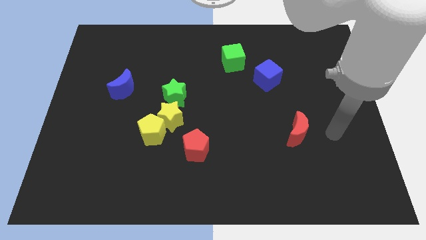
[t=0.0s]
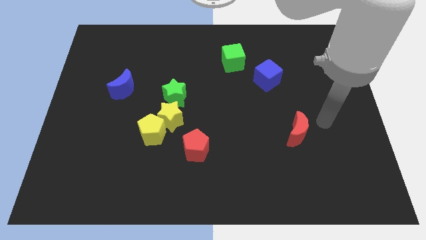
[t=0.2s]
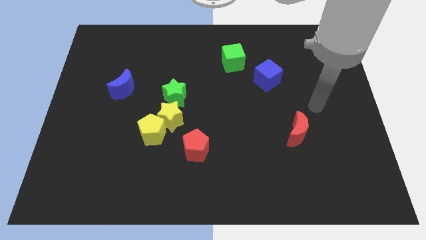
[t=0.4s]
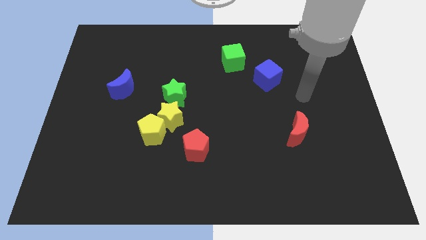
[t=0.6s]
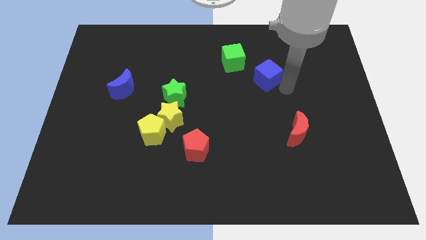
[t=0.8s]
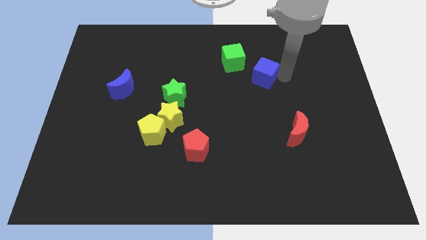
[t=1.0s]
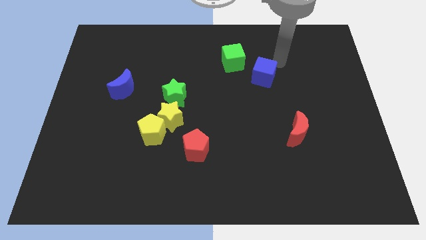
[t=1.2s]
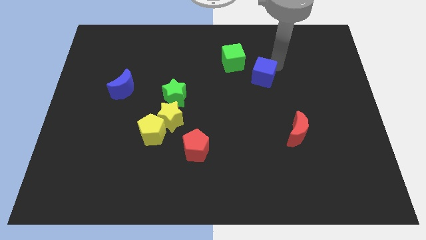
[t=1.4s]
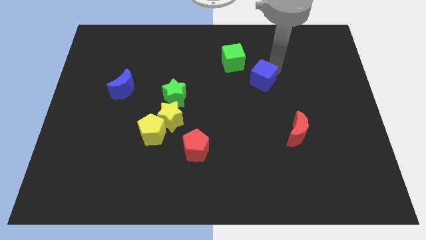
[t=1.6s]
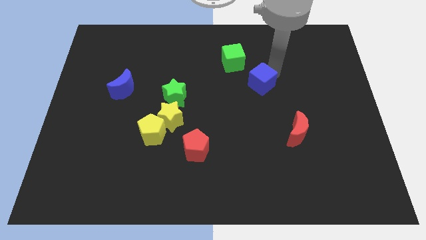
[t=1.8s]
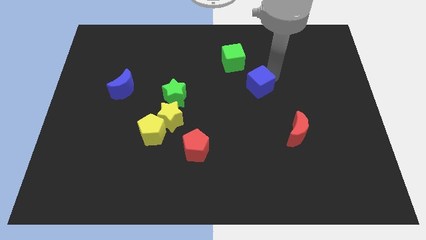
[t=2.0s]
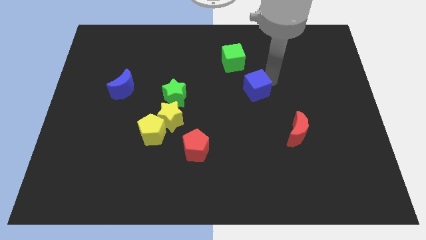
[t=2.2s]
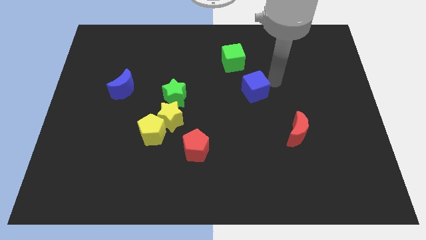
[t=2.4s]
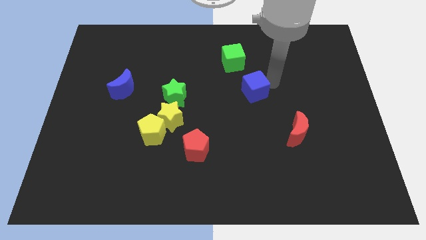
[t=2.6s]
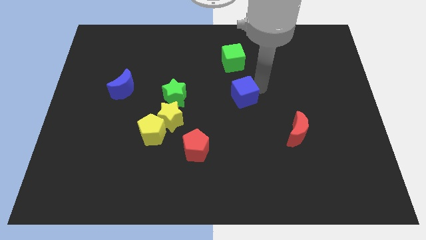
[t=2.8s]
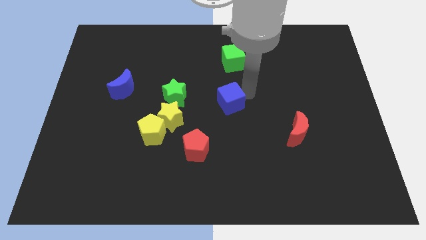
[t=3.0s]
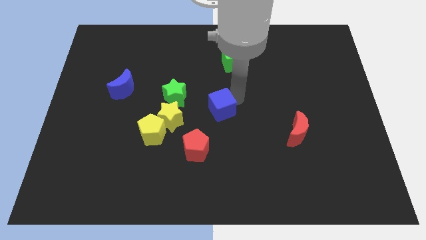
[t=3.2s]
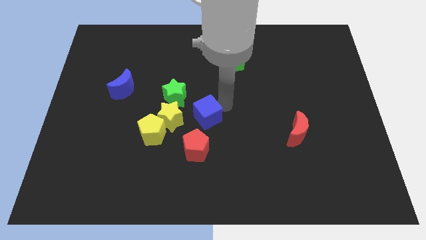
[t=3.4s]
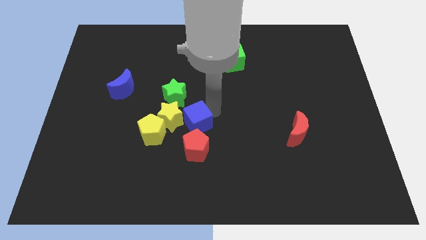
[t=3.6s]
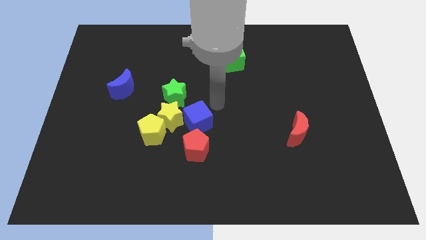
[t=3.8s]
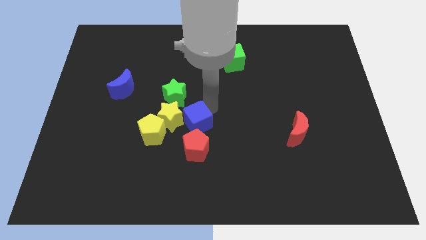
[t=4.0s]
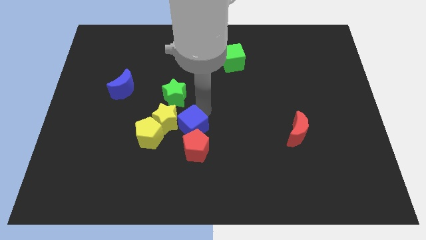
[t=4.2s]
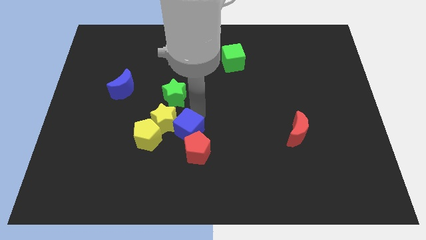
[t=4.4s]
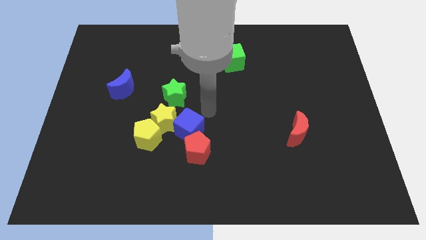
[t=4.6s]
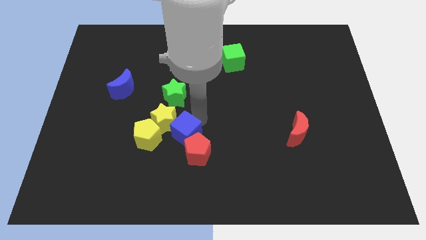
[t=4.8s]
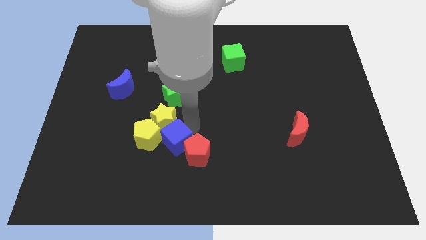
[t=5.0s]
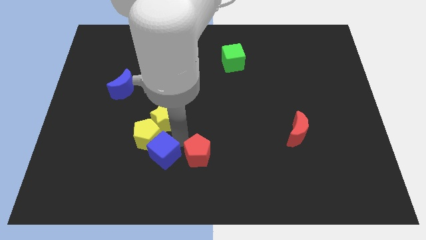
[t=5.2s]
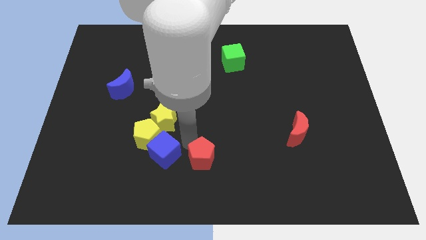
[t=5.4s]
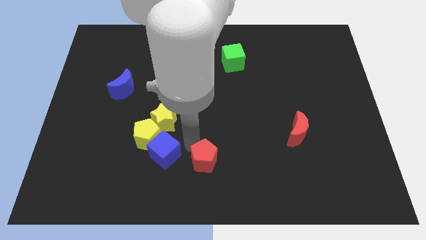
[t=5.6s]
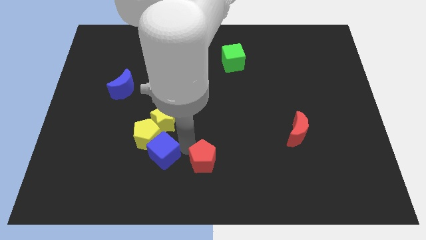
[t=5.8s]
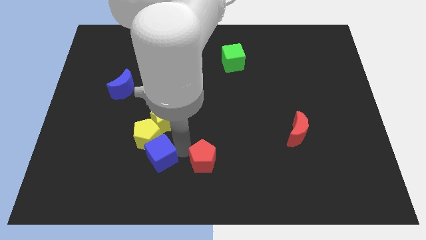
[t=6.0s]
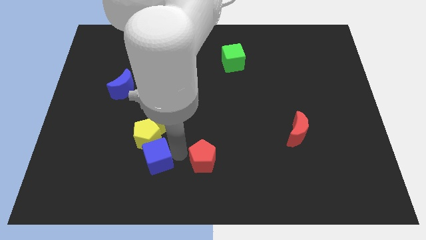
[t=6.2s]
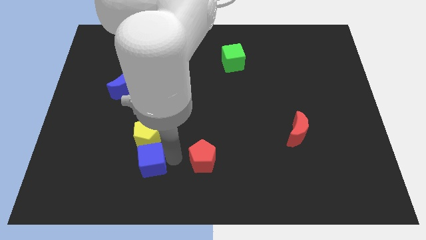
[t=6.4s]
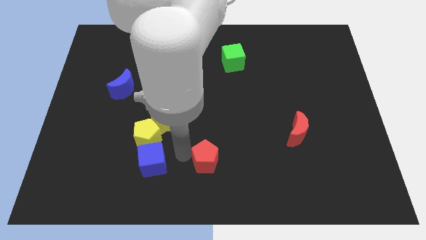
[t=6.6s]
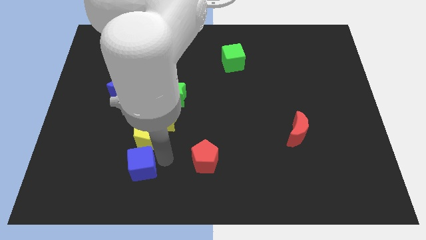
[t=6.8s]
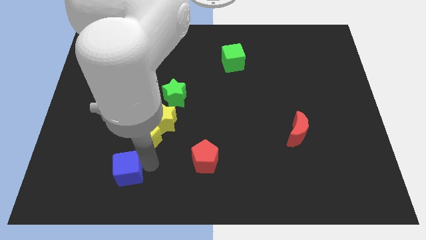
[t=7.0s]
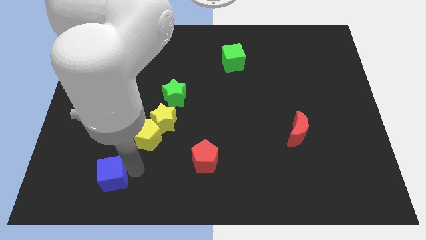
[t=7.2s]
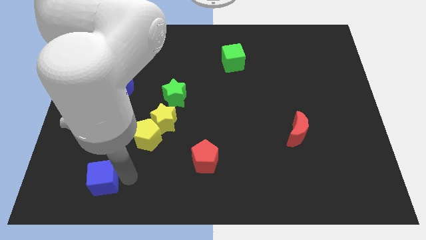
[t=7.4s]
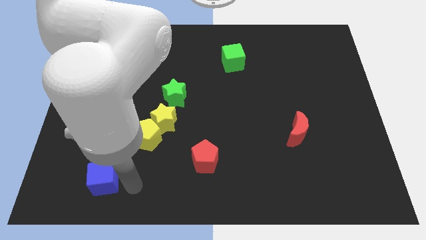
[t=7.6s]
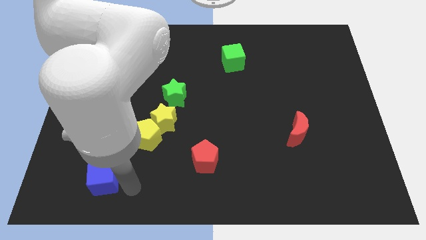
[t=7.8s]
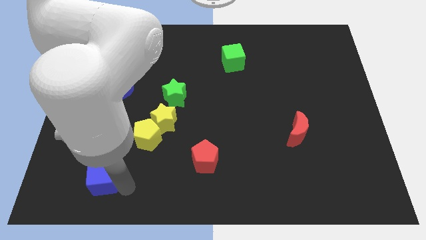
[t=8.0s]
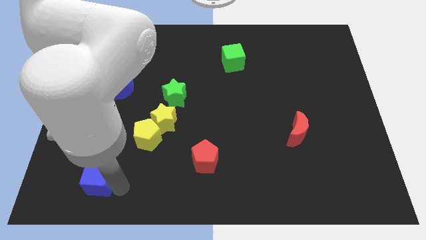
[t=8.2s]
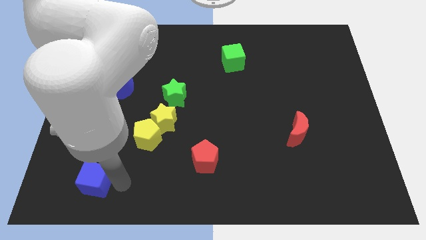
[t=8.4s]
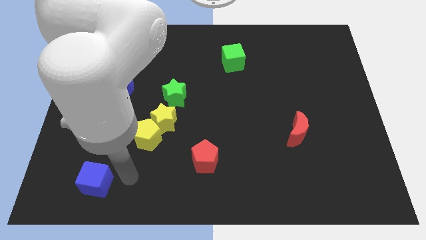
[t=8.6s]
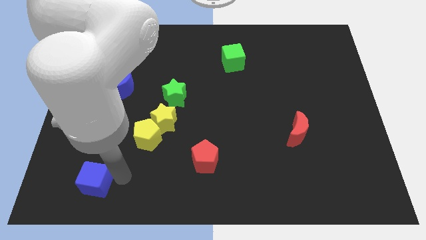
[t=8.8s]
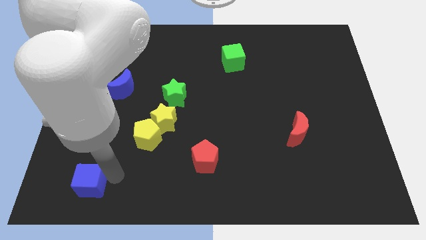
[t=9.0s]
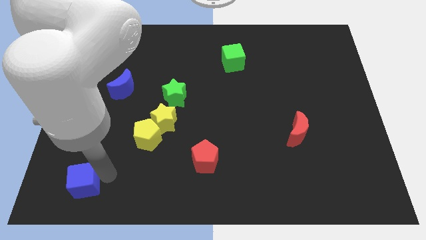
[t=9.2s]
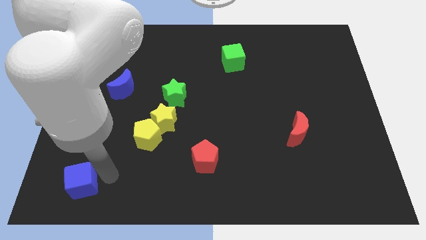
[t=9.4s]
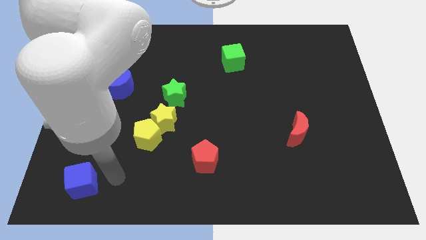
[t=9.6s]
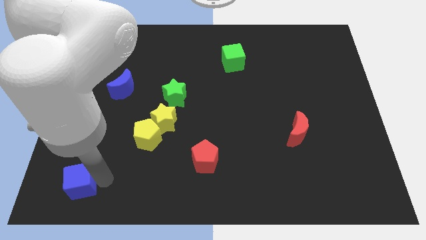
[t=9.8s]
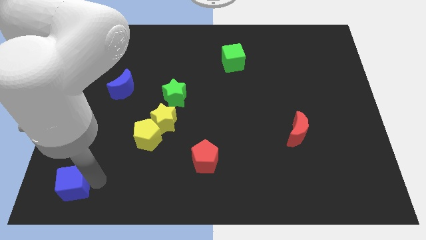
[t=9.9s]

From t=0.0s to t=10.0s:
move the blue cube to the lower left corner

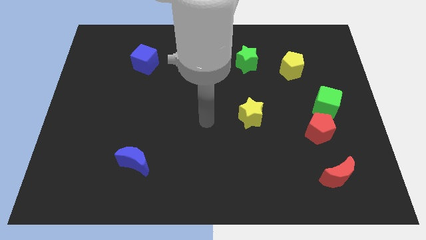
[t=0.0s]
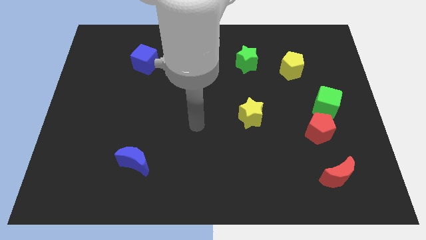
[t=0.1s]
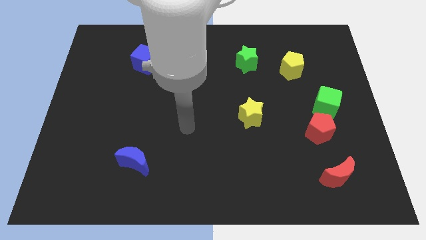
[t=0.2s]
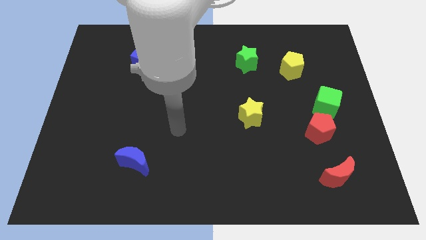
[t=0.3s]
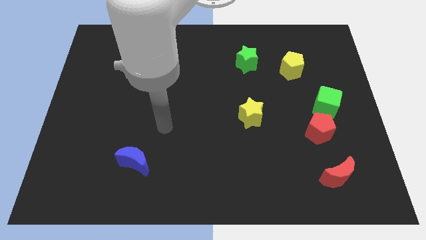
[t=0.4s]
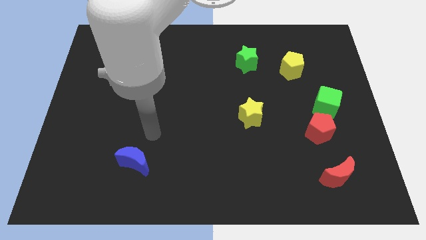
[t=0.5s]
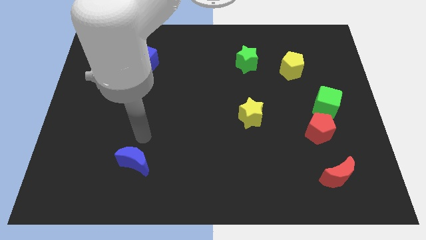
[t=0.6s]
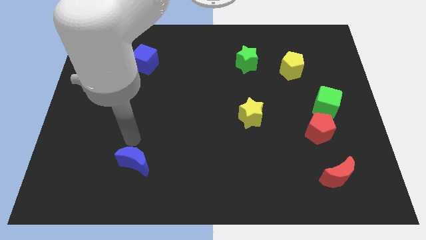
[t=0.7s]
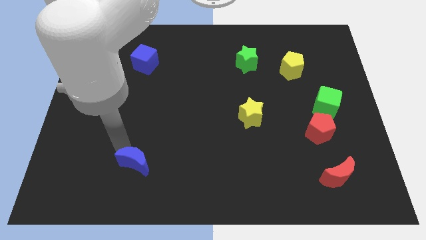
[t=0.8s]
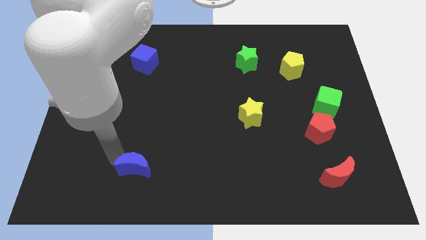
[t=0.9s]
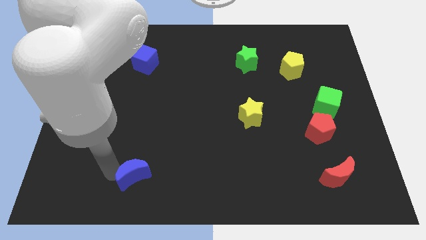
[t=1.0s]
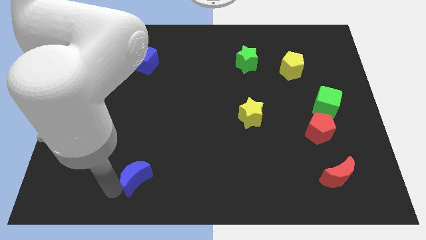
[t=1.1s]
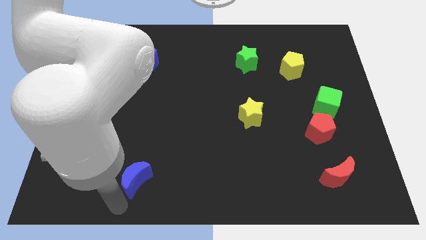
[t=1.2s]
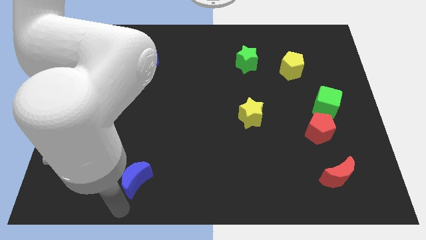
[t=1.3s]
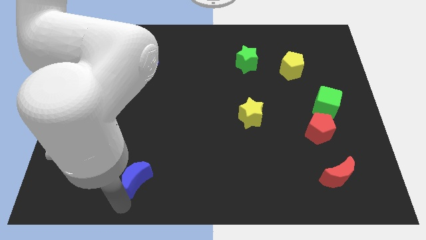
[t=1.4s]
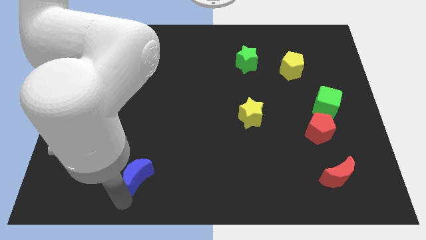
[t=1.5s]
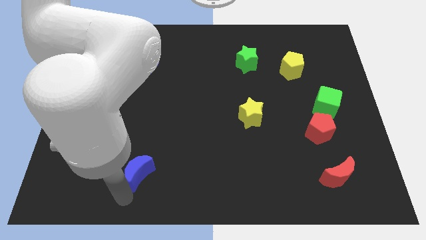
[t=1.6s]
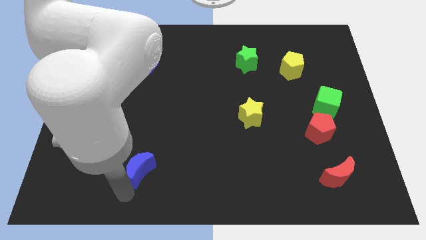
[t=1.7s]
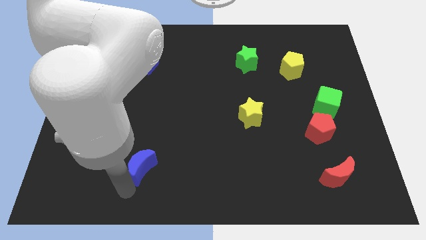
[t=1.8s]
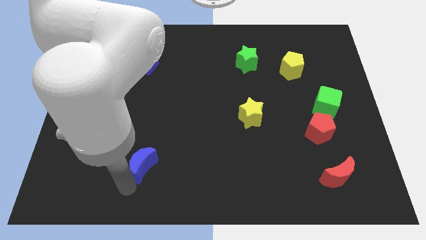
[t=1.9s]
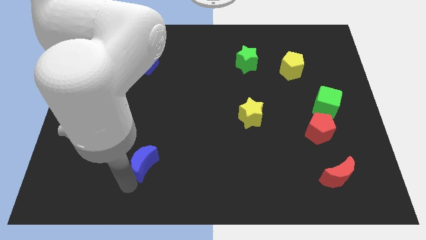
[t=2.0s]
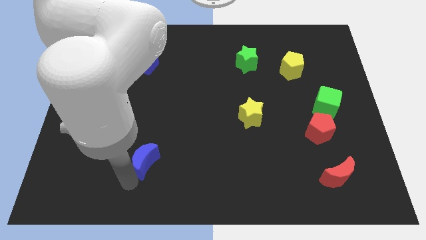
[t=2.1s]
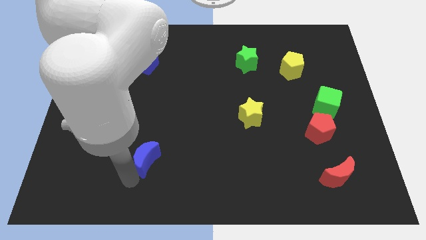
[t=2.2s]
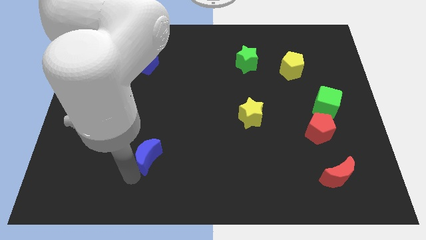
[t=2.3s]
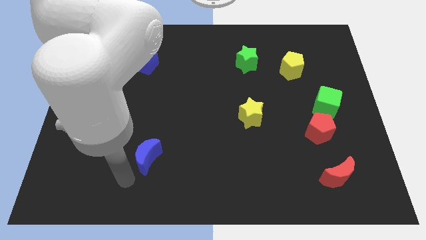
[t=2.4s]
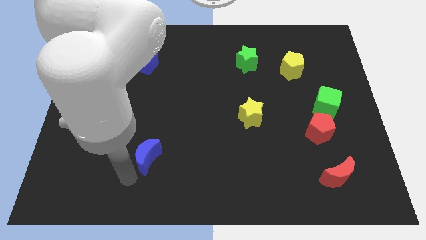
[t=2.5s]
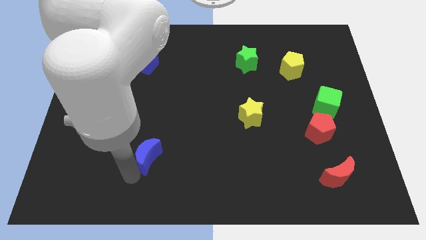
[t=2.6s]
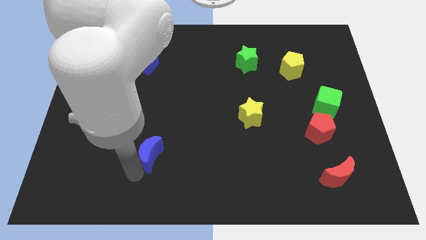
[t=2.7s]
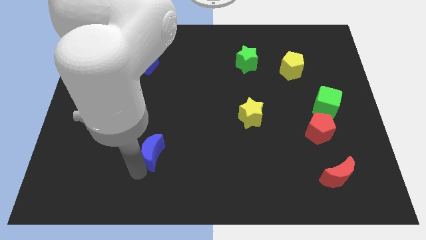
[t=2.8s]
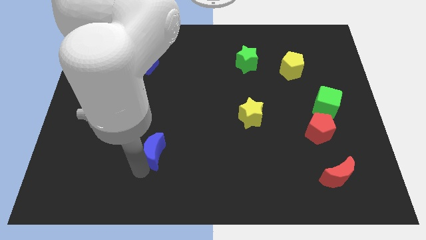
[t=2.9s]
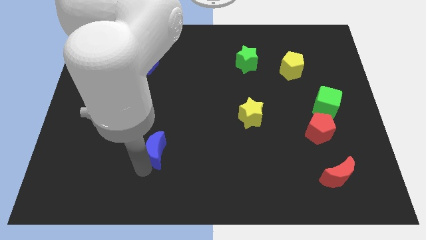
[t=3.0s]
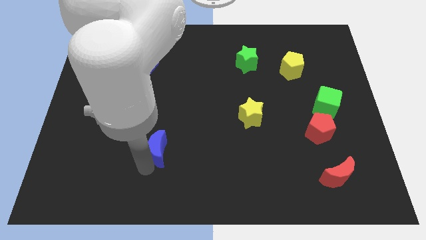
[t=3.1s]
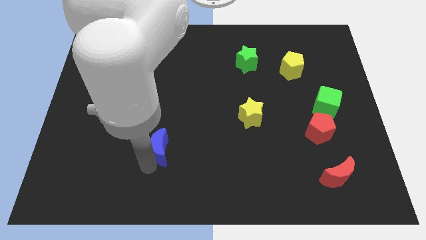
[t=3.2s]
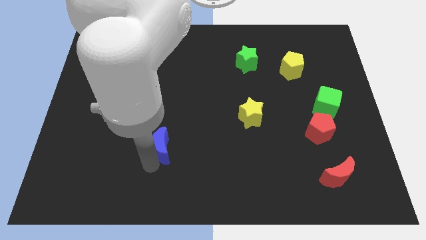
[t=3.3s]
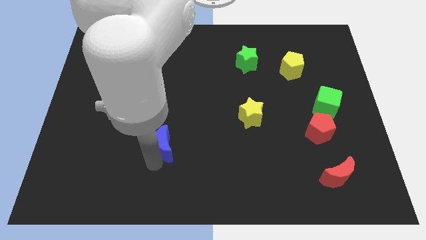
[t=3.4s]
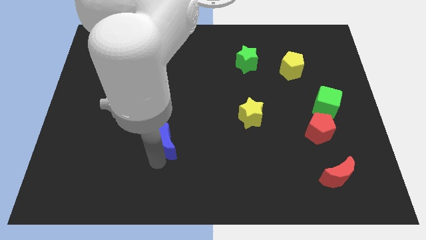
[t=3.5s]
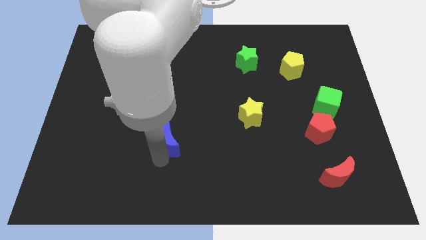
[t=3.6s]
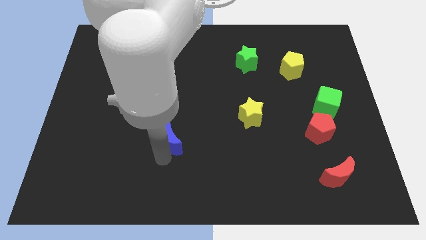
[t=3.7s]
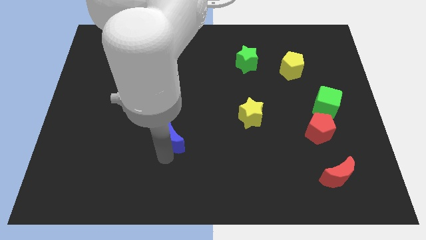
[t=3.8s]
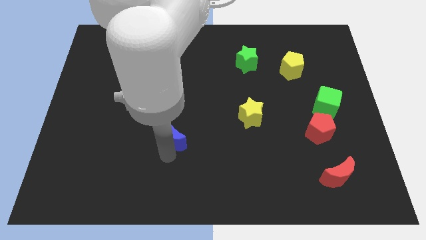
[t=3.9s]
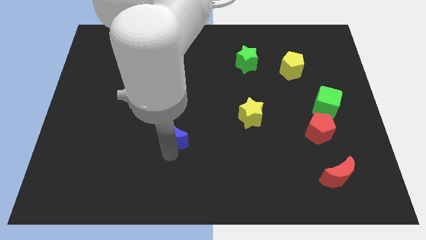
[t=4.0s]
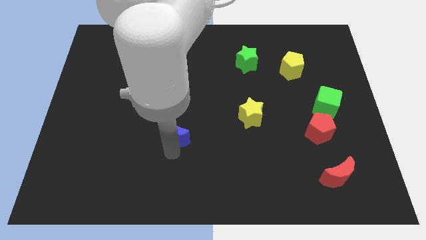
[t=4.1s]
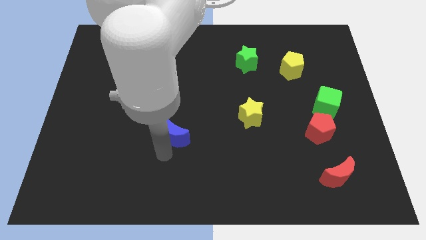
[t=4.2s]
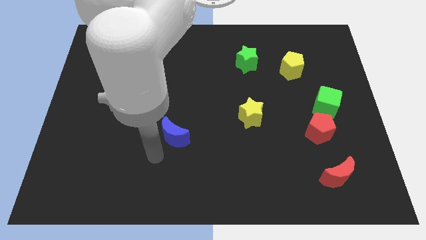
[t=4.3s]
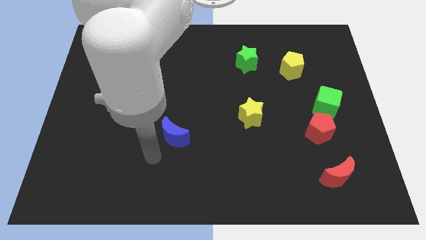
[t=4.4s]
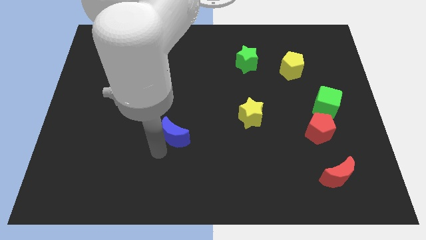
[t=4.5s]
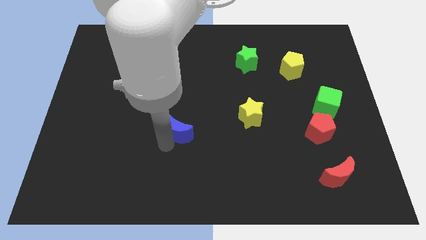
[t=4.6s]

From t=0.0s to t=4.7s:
move the blue moon to the middle
